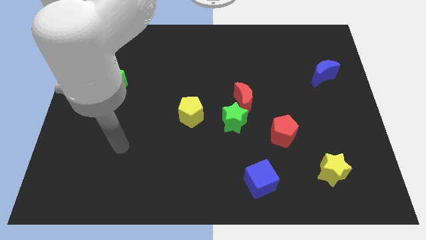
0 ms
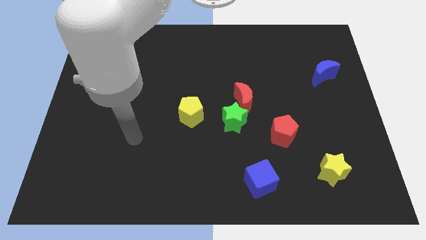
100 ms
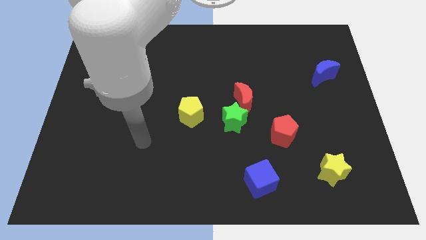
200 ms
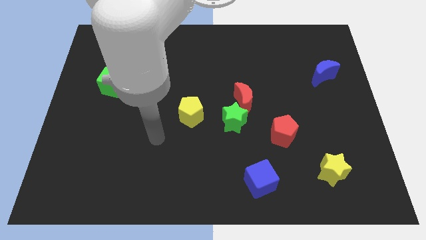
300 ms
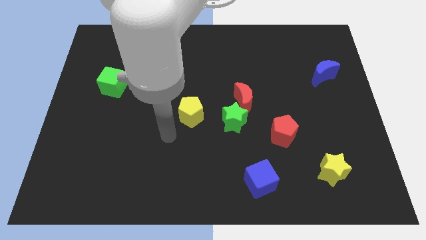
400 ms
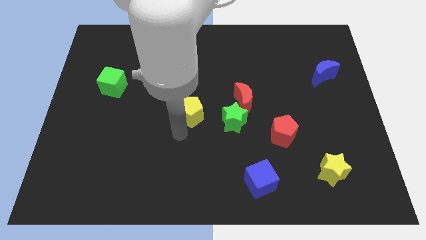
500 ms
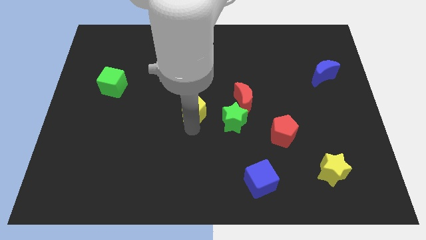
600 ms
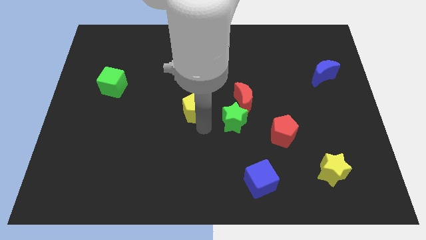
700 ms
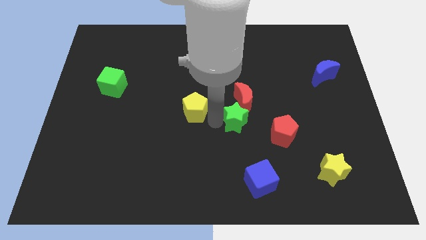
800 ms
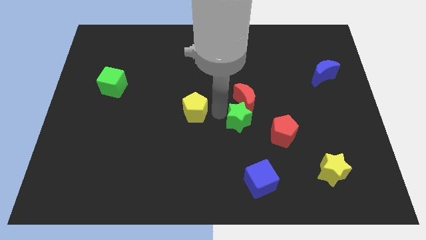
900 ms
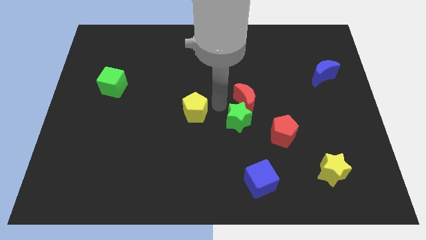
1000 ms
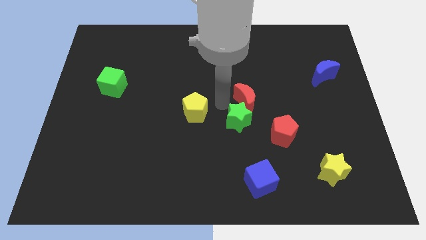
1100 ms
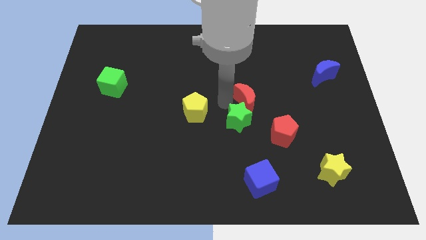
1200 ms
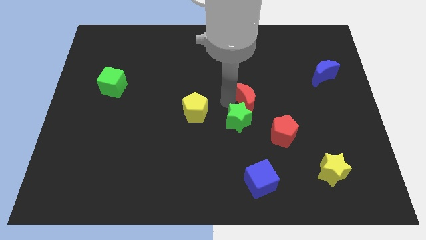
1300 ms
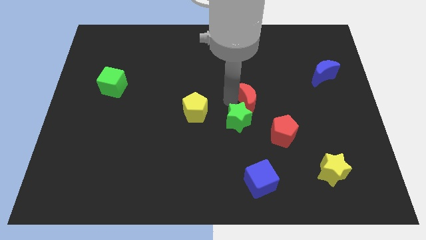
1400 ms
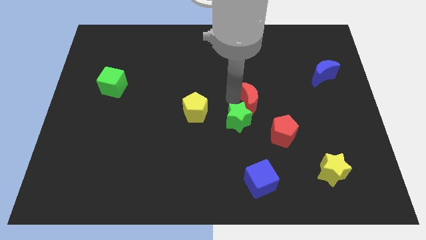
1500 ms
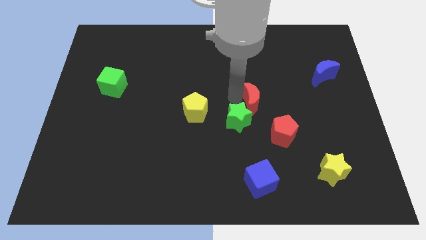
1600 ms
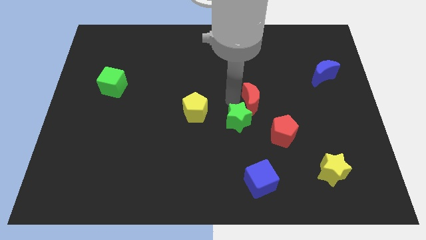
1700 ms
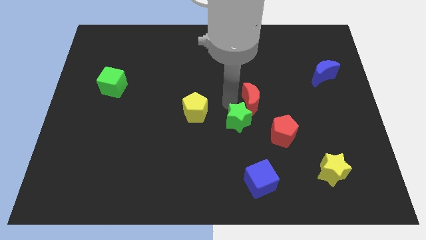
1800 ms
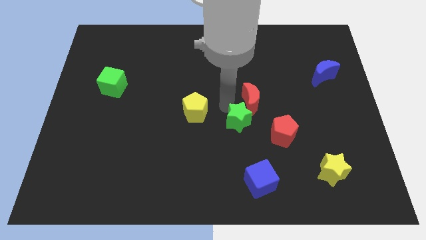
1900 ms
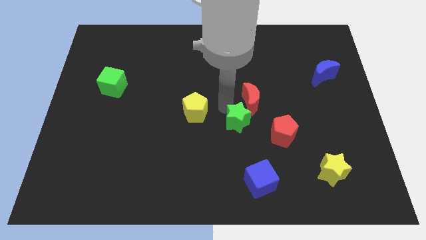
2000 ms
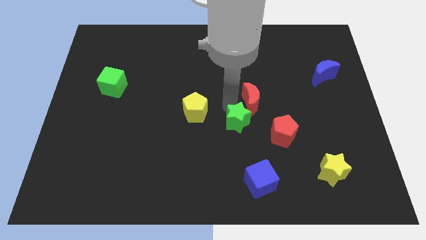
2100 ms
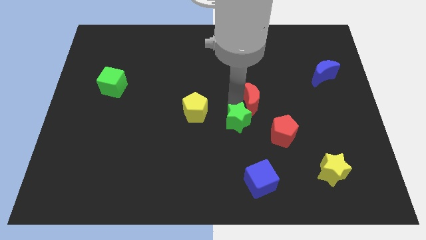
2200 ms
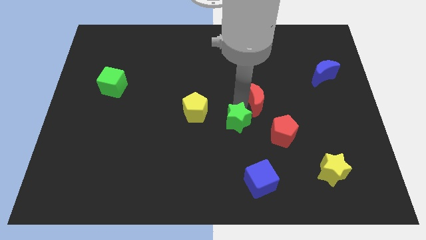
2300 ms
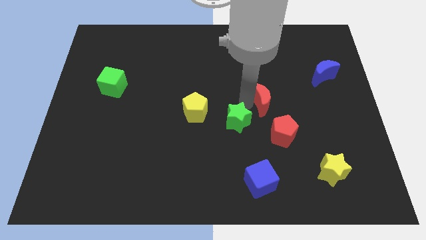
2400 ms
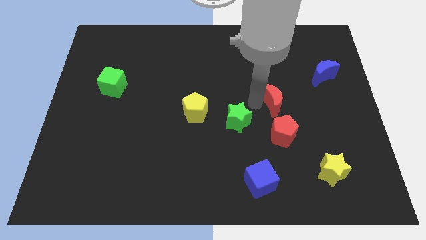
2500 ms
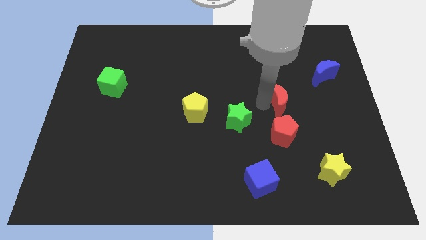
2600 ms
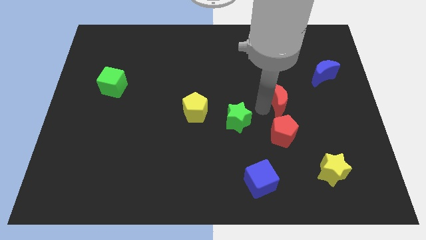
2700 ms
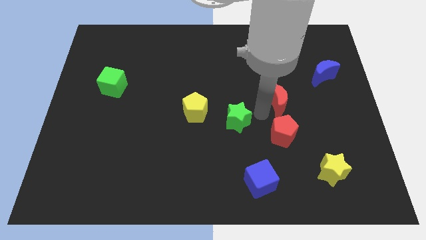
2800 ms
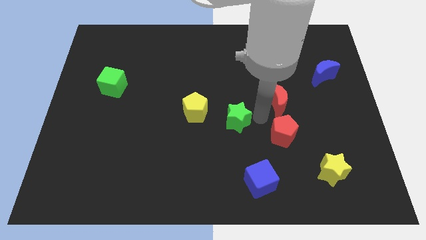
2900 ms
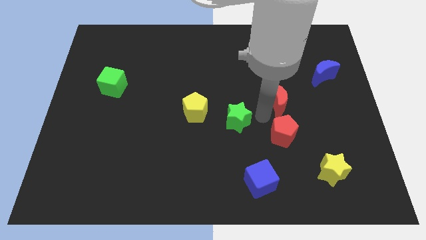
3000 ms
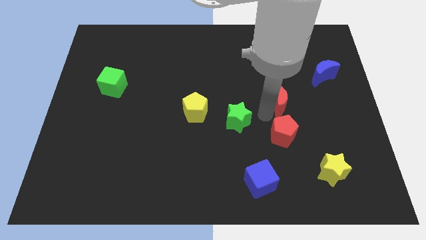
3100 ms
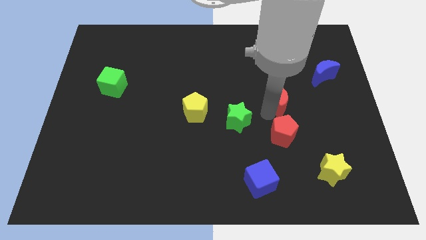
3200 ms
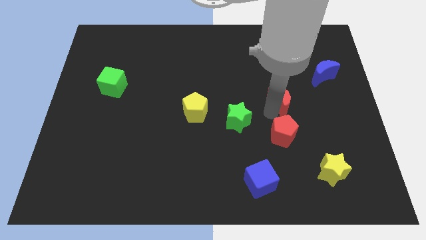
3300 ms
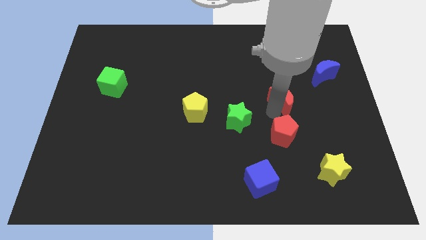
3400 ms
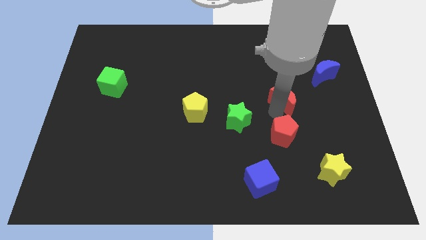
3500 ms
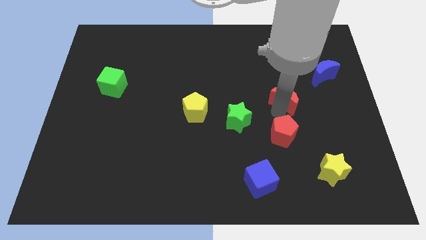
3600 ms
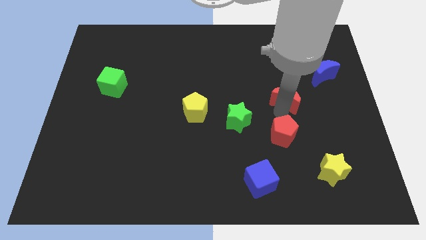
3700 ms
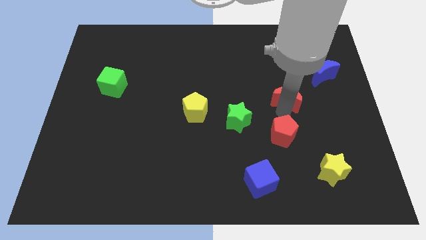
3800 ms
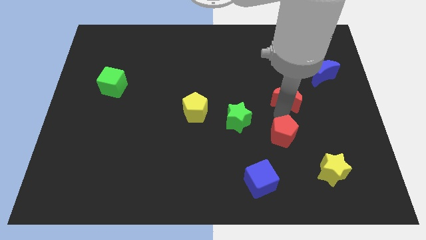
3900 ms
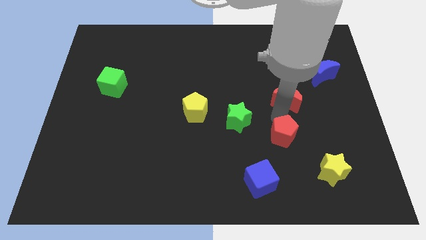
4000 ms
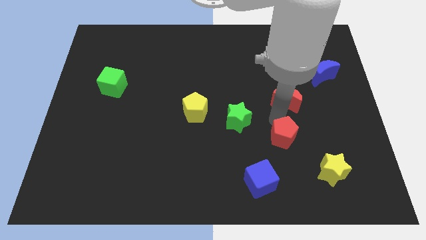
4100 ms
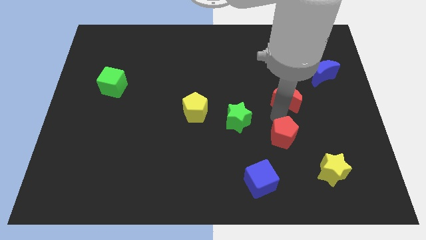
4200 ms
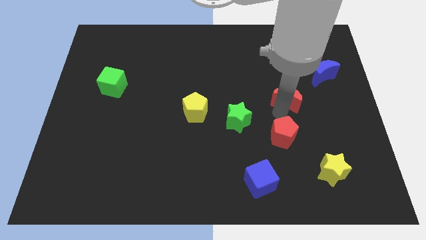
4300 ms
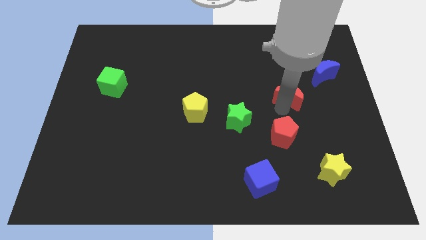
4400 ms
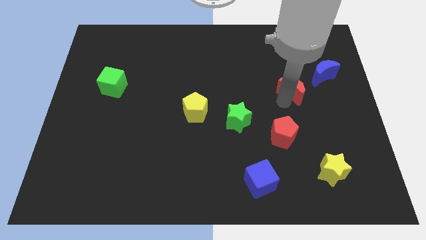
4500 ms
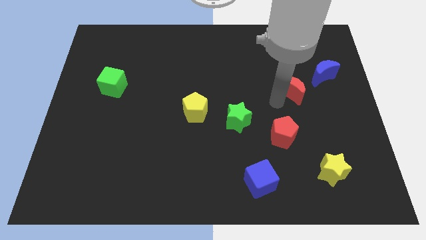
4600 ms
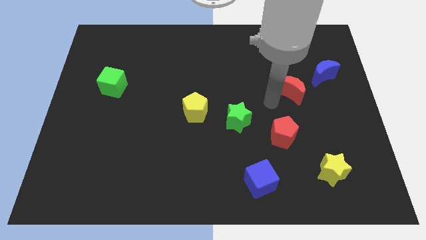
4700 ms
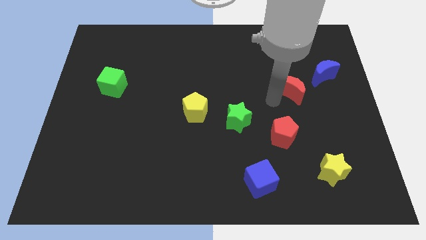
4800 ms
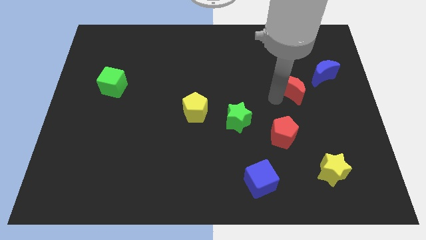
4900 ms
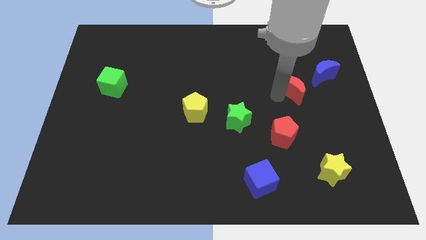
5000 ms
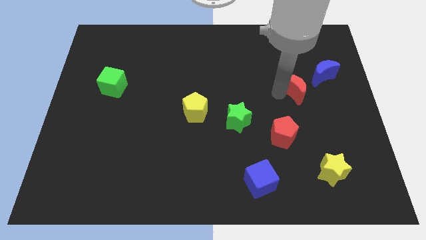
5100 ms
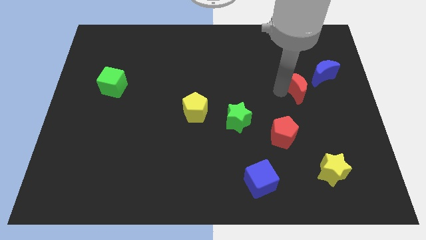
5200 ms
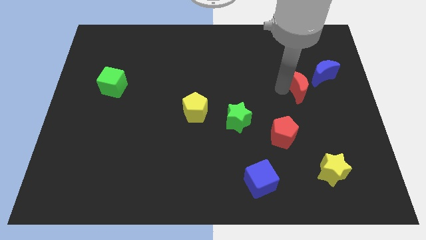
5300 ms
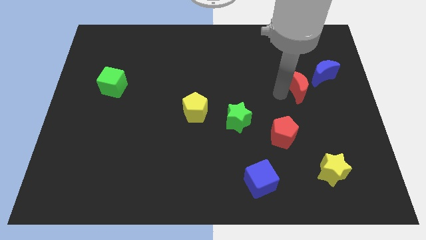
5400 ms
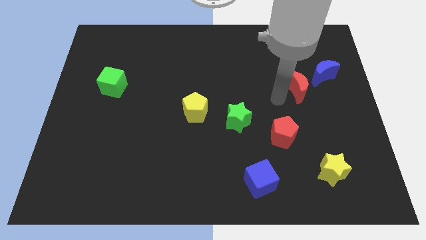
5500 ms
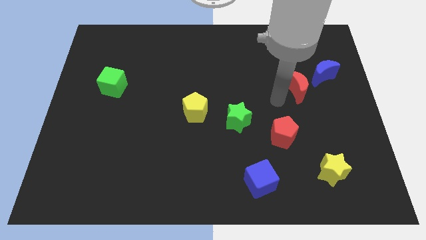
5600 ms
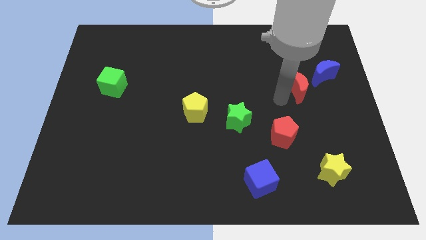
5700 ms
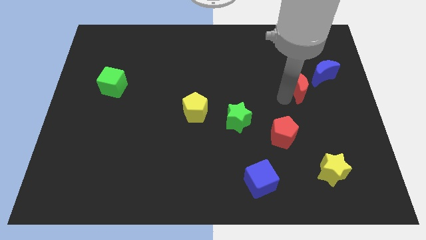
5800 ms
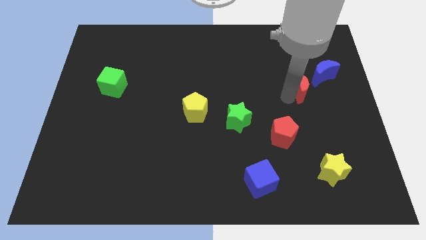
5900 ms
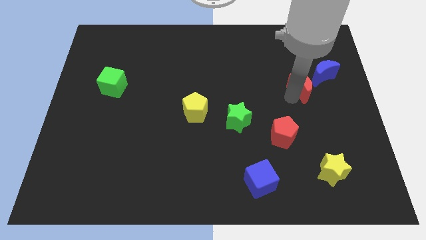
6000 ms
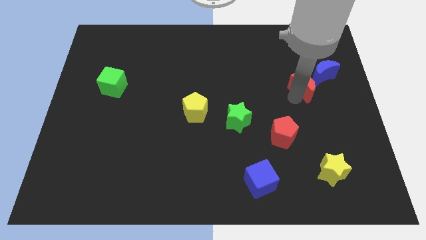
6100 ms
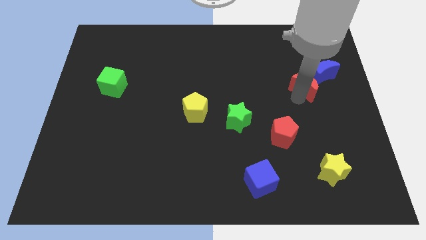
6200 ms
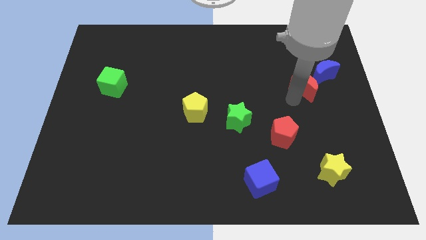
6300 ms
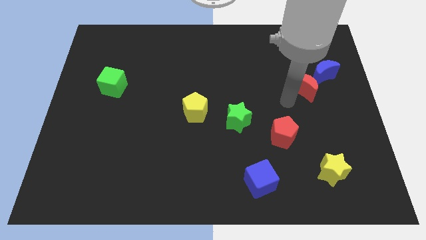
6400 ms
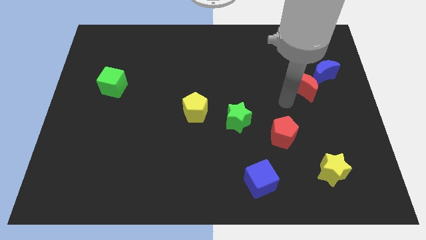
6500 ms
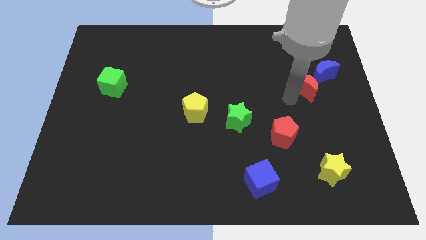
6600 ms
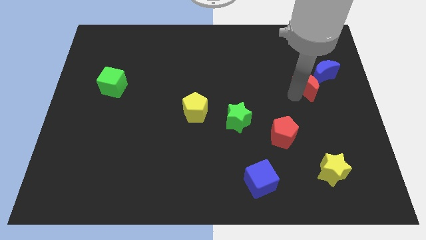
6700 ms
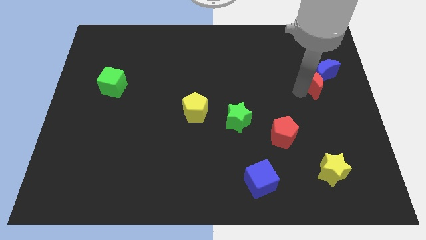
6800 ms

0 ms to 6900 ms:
move the red moon to the blue moon
